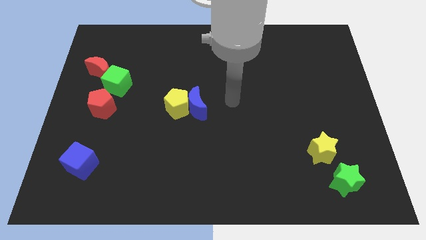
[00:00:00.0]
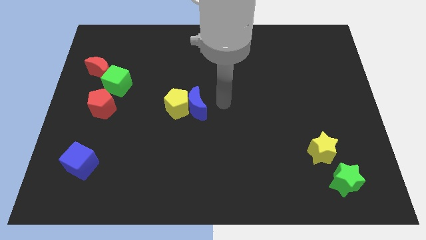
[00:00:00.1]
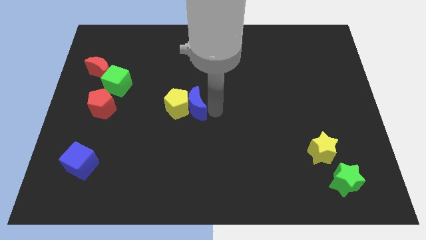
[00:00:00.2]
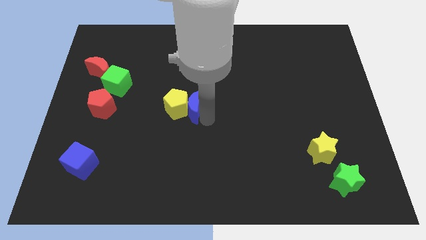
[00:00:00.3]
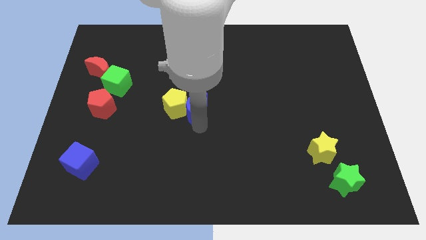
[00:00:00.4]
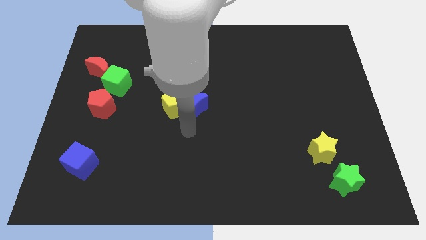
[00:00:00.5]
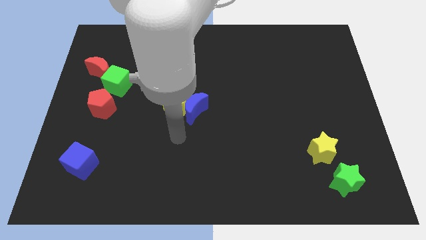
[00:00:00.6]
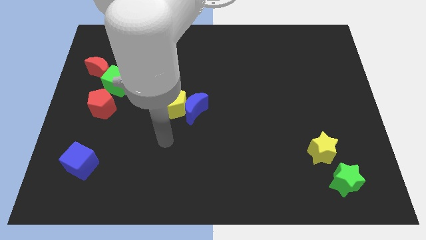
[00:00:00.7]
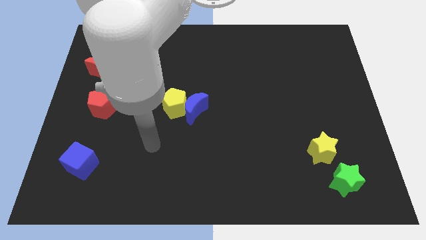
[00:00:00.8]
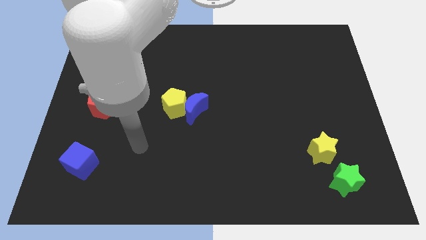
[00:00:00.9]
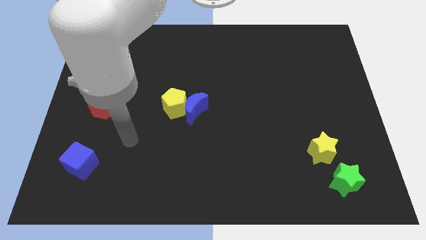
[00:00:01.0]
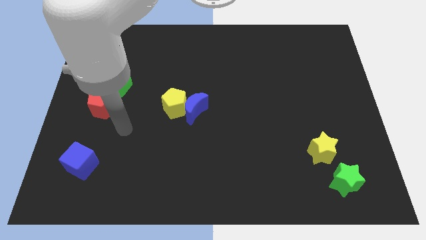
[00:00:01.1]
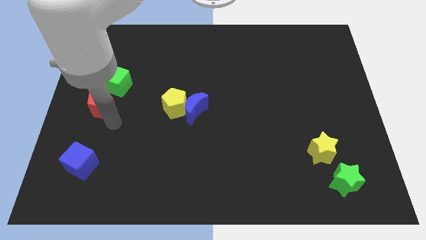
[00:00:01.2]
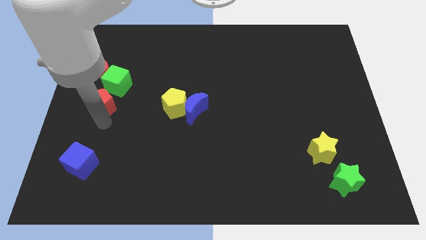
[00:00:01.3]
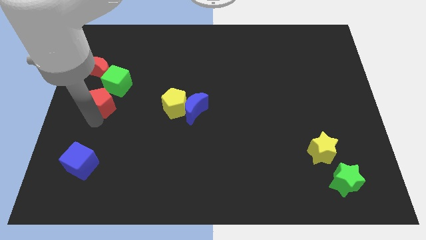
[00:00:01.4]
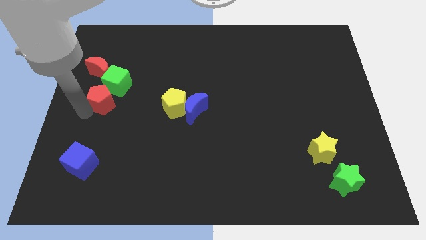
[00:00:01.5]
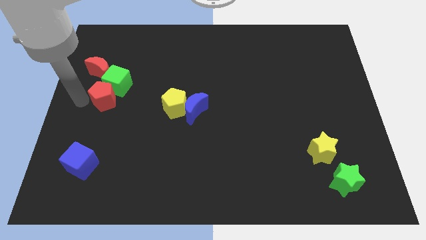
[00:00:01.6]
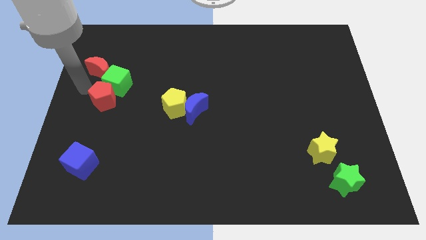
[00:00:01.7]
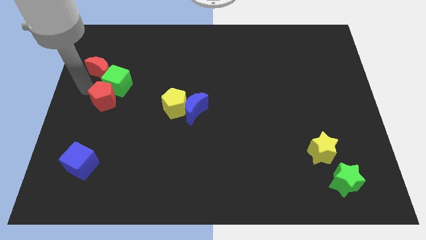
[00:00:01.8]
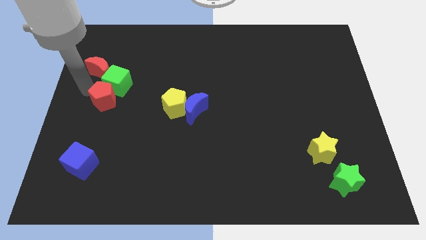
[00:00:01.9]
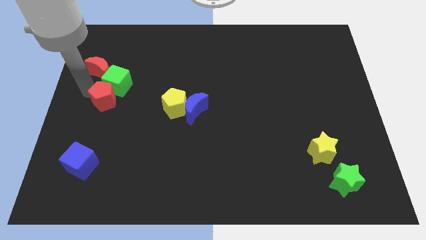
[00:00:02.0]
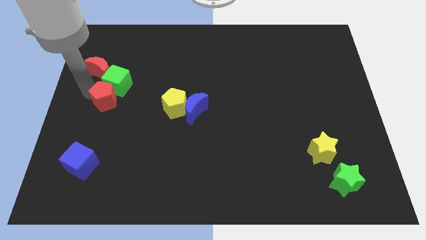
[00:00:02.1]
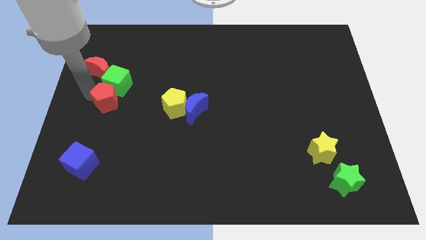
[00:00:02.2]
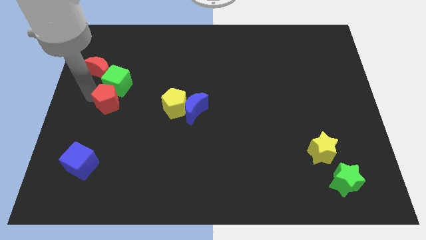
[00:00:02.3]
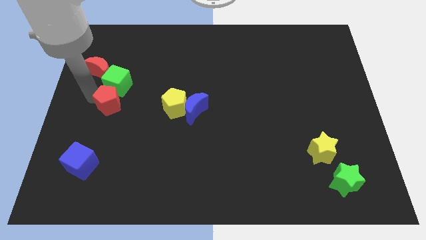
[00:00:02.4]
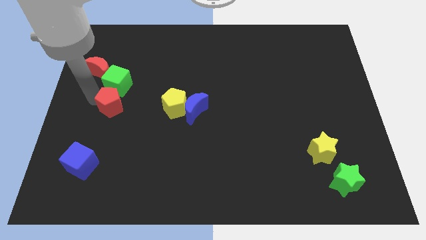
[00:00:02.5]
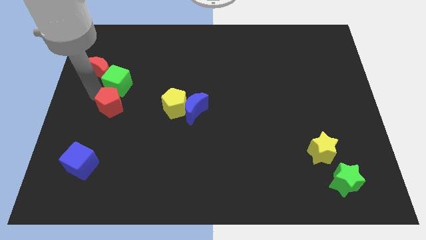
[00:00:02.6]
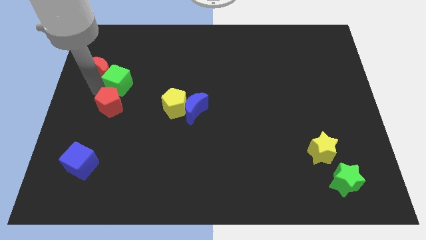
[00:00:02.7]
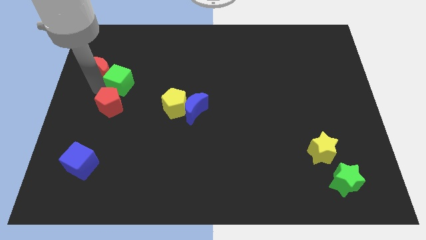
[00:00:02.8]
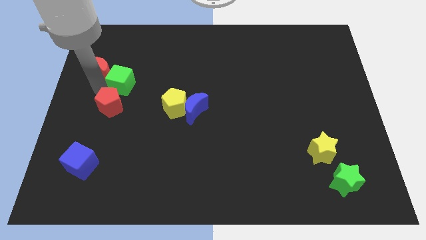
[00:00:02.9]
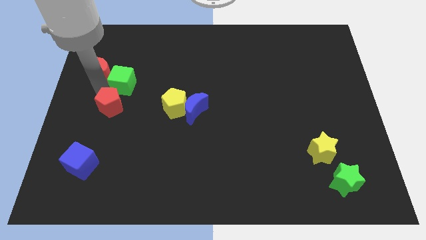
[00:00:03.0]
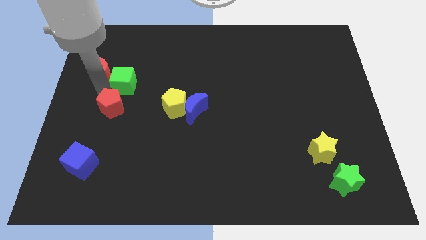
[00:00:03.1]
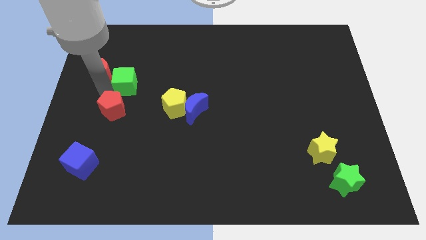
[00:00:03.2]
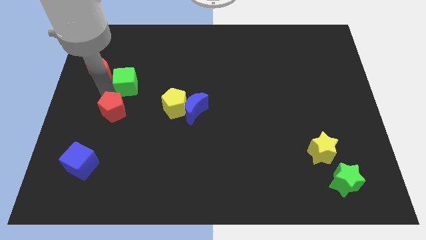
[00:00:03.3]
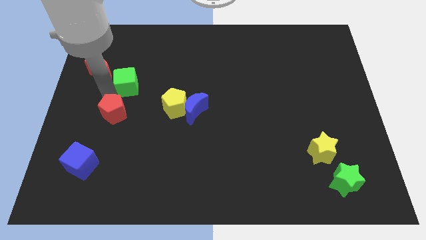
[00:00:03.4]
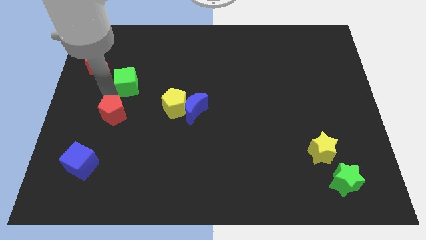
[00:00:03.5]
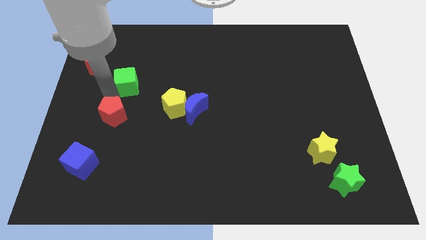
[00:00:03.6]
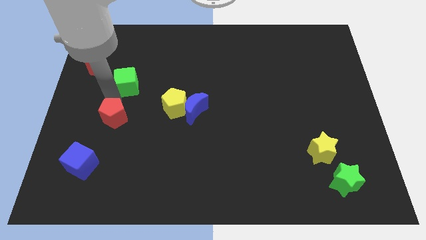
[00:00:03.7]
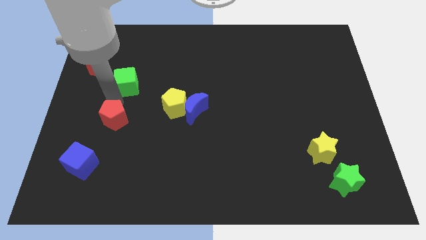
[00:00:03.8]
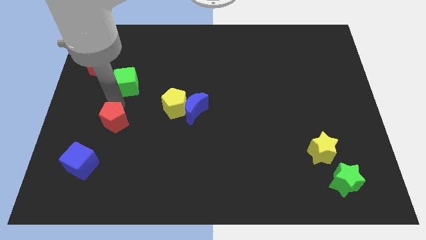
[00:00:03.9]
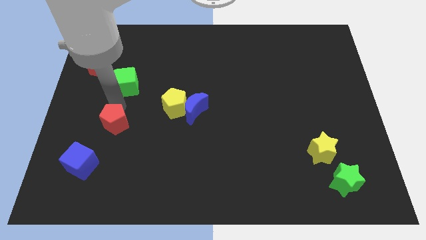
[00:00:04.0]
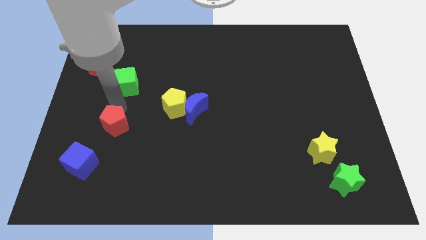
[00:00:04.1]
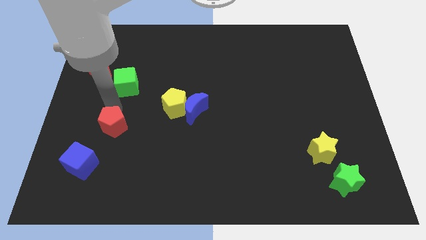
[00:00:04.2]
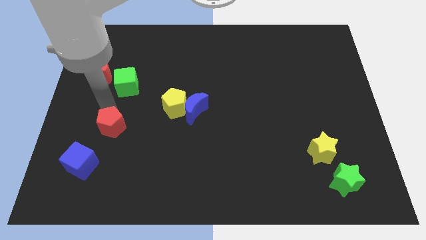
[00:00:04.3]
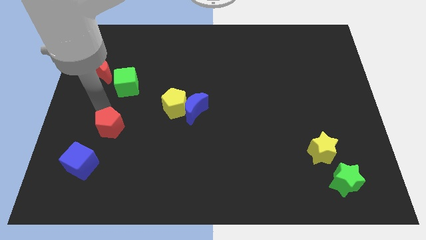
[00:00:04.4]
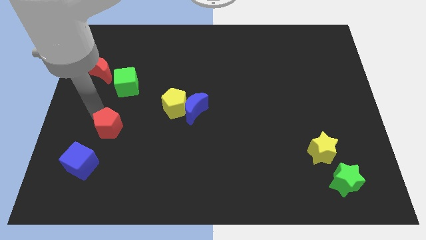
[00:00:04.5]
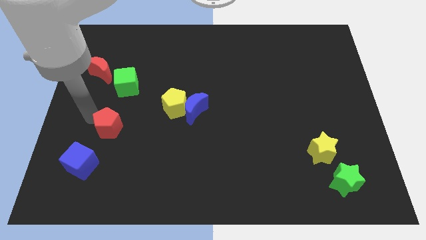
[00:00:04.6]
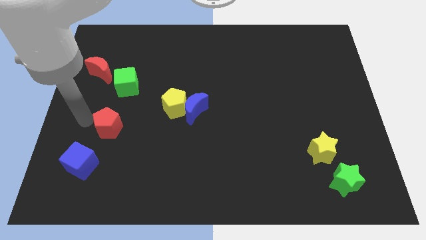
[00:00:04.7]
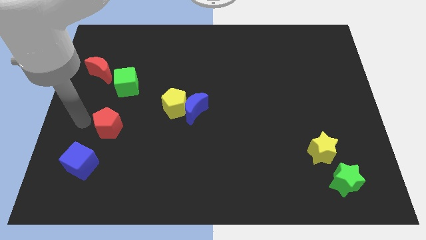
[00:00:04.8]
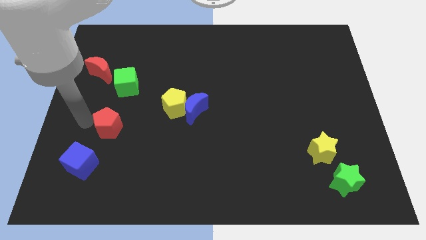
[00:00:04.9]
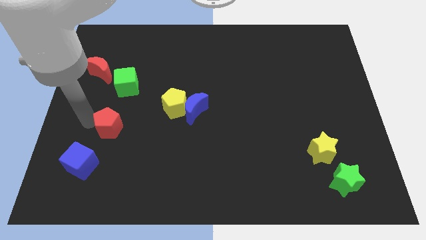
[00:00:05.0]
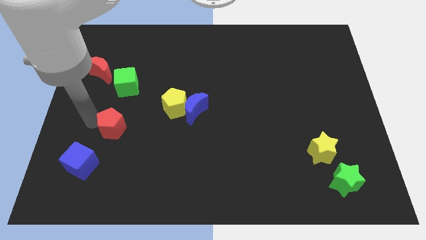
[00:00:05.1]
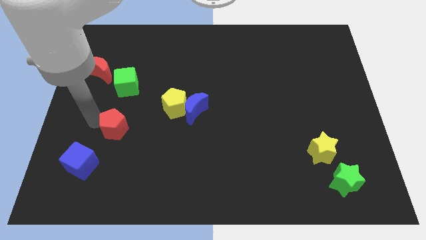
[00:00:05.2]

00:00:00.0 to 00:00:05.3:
move the red pentagon down and right diagonally slightly

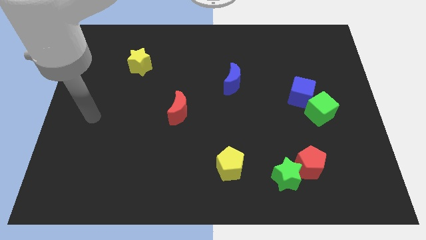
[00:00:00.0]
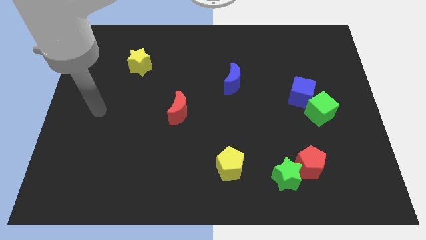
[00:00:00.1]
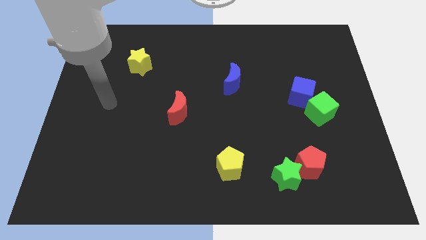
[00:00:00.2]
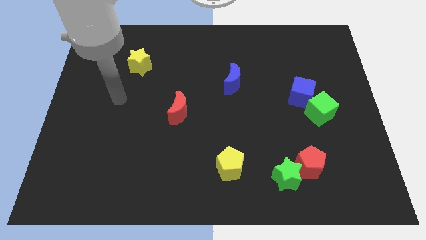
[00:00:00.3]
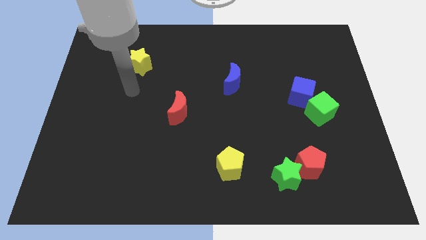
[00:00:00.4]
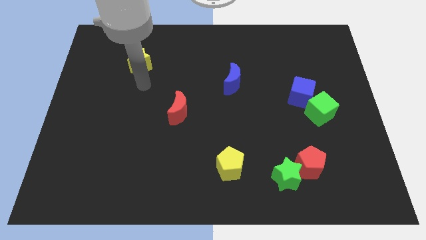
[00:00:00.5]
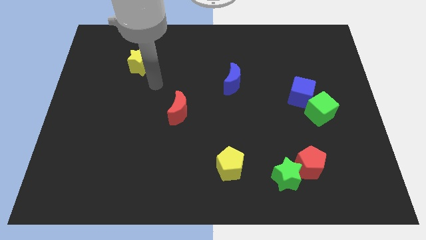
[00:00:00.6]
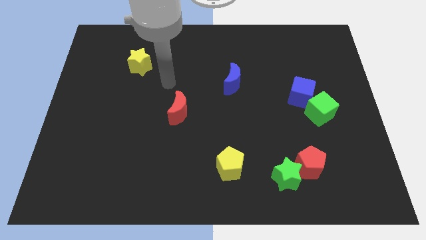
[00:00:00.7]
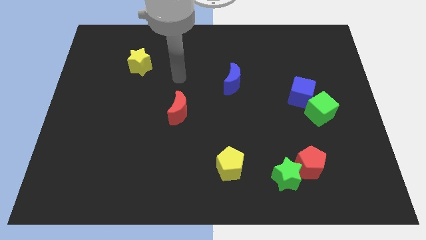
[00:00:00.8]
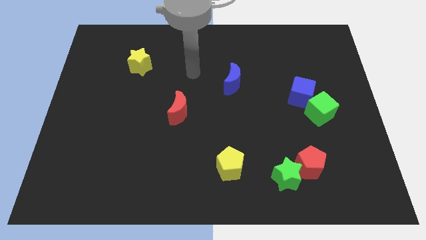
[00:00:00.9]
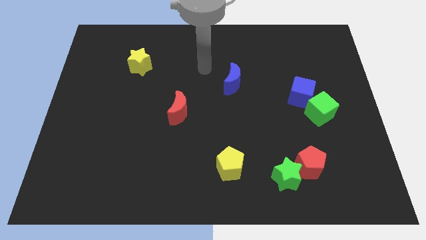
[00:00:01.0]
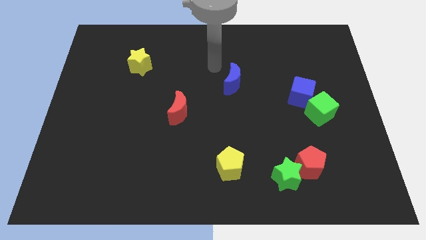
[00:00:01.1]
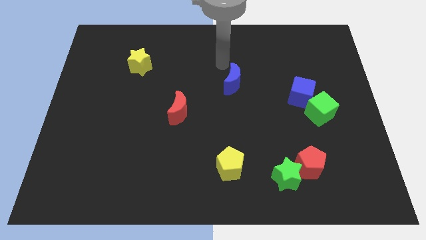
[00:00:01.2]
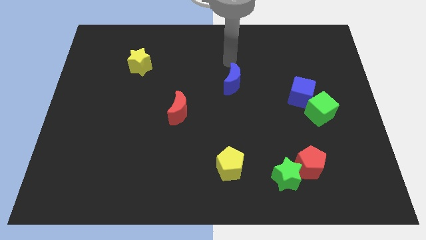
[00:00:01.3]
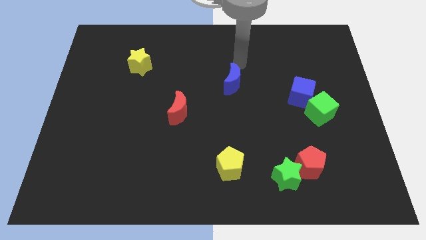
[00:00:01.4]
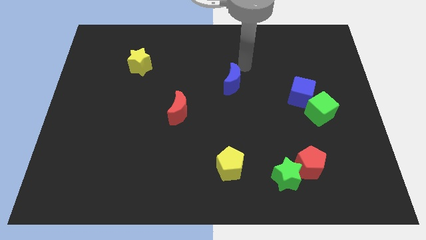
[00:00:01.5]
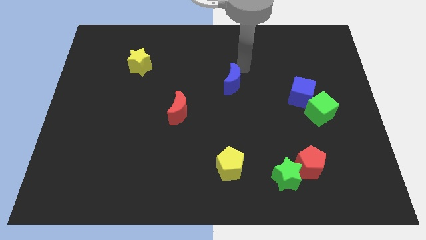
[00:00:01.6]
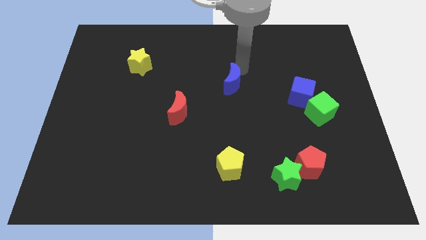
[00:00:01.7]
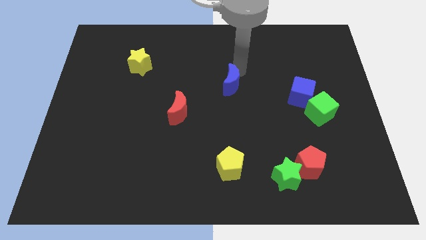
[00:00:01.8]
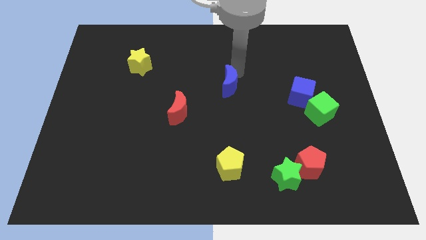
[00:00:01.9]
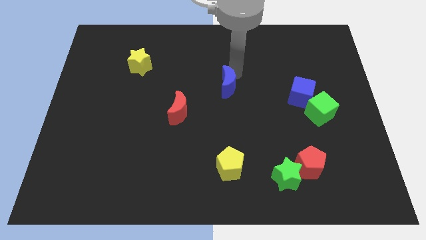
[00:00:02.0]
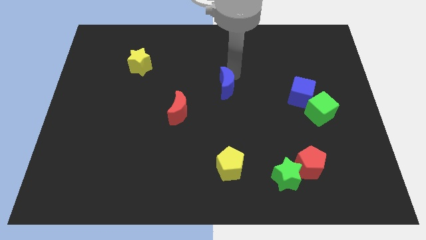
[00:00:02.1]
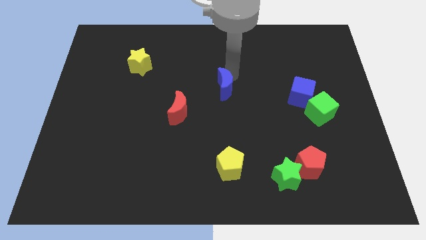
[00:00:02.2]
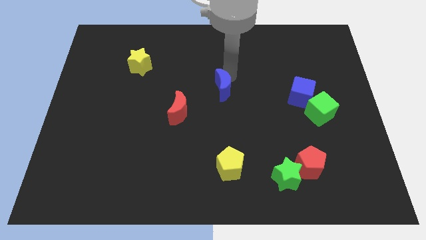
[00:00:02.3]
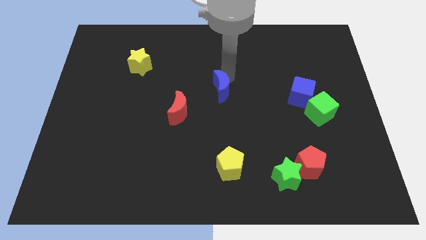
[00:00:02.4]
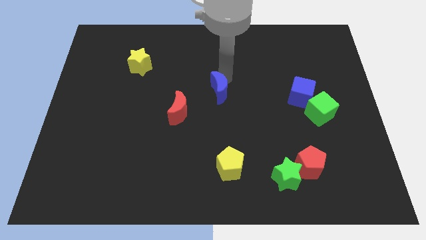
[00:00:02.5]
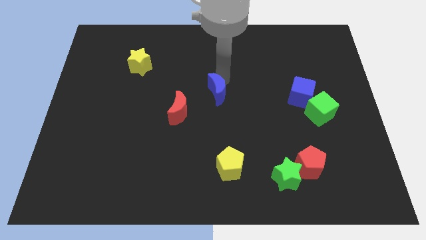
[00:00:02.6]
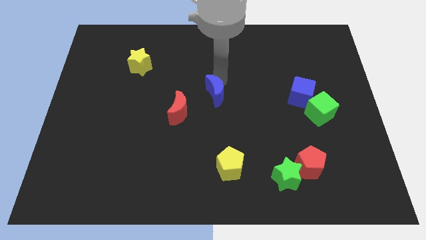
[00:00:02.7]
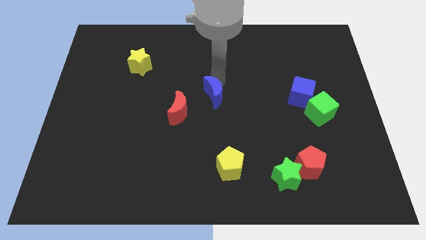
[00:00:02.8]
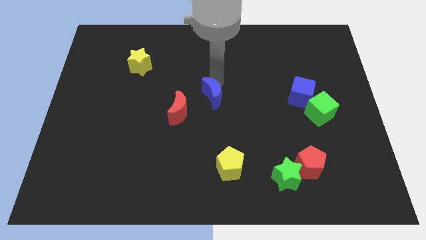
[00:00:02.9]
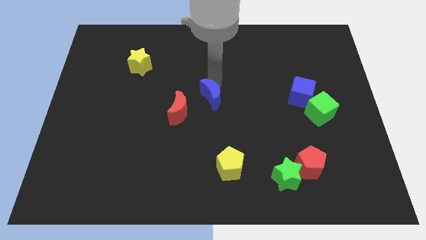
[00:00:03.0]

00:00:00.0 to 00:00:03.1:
move the blue moon down and then to the left a bit
